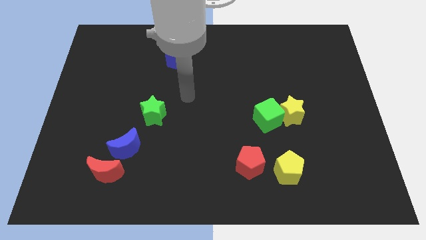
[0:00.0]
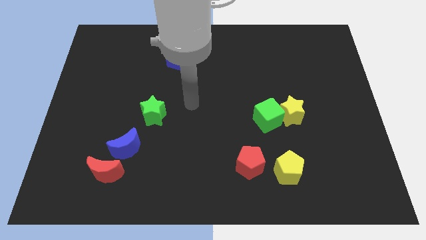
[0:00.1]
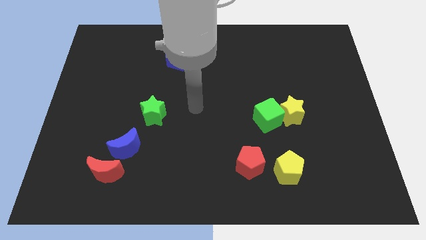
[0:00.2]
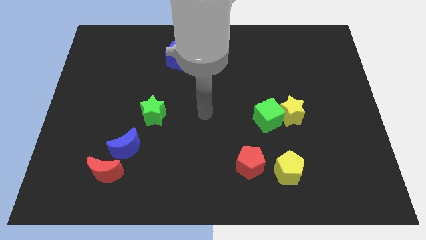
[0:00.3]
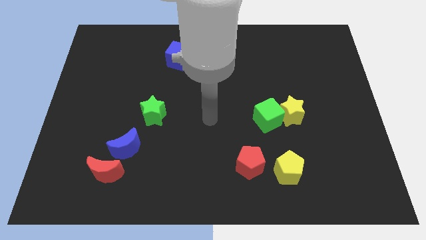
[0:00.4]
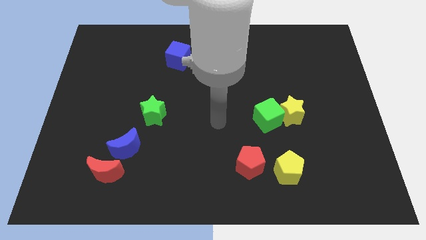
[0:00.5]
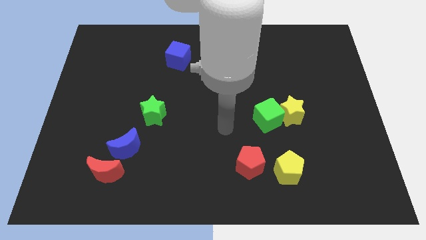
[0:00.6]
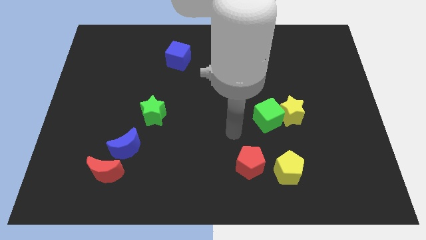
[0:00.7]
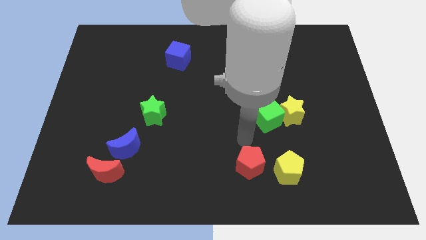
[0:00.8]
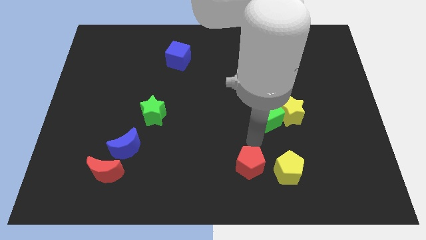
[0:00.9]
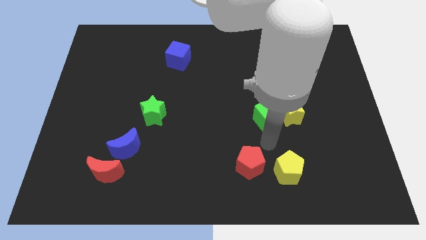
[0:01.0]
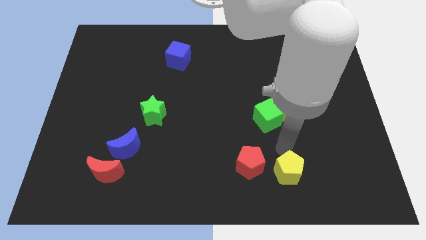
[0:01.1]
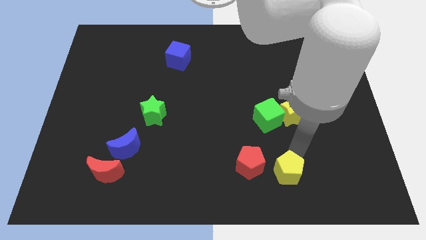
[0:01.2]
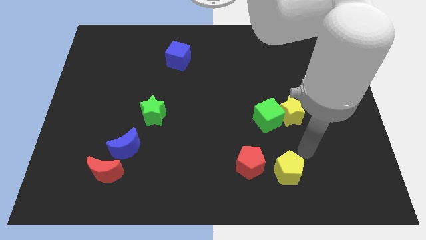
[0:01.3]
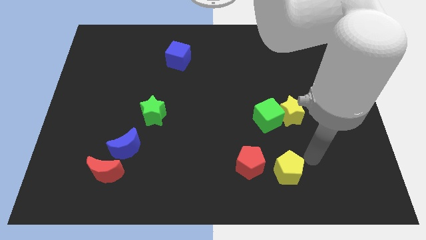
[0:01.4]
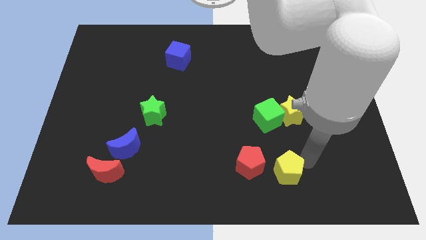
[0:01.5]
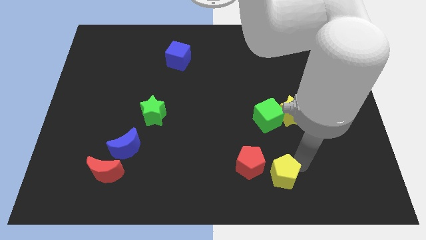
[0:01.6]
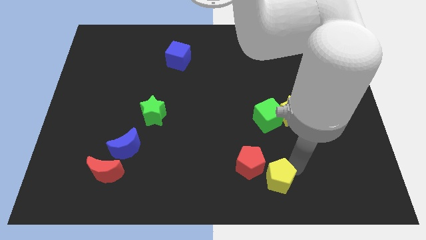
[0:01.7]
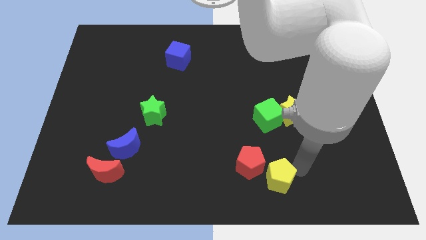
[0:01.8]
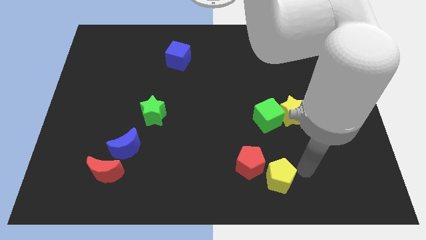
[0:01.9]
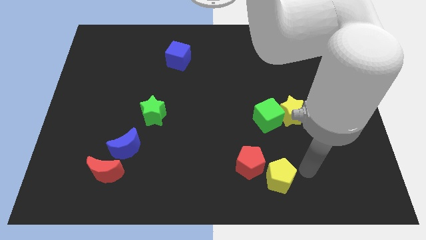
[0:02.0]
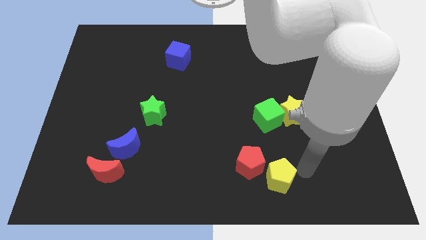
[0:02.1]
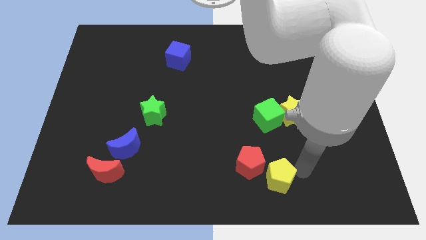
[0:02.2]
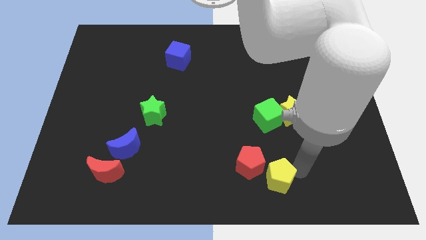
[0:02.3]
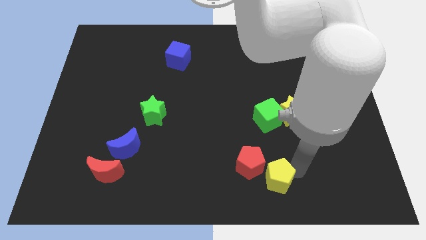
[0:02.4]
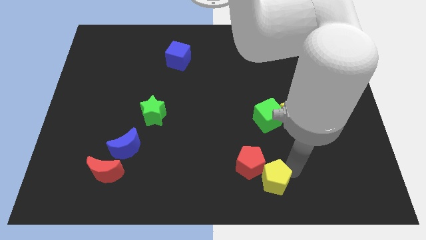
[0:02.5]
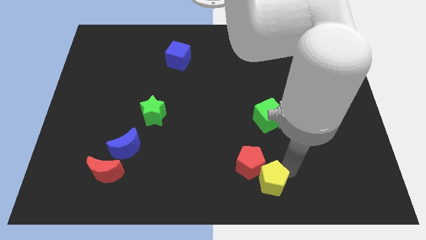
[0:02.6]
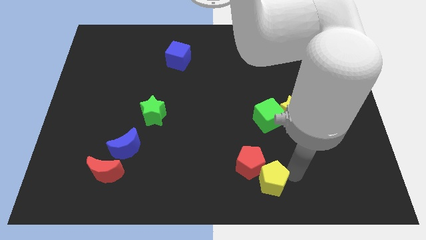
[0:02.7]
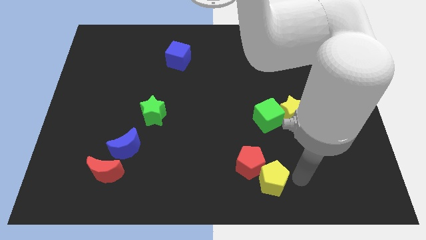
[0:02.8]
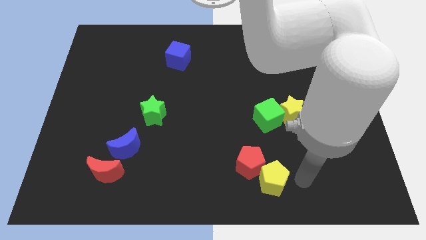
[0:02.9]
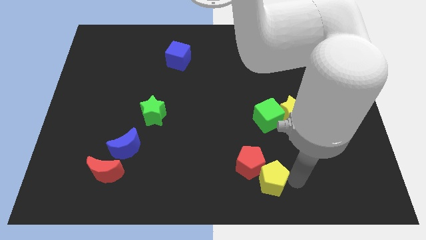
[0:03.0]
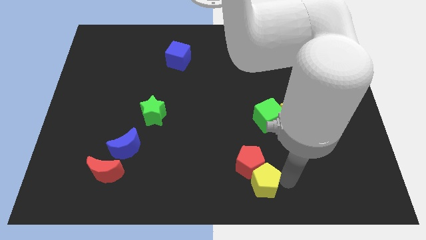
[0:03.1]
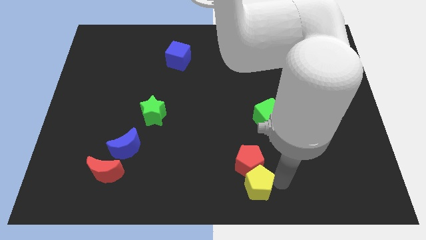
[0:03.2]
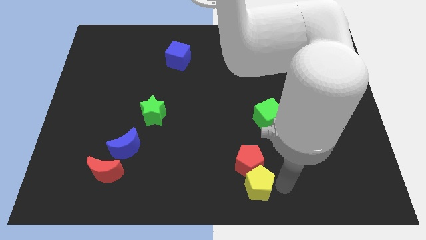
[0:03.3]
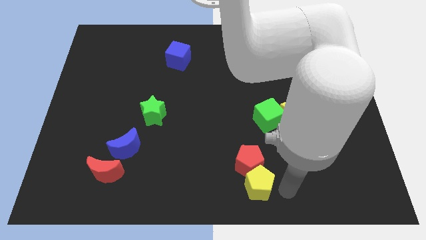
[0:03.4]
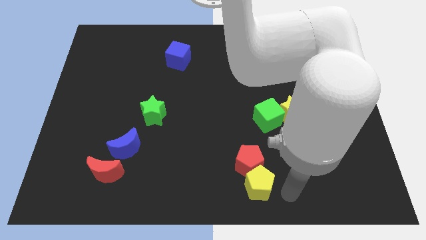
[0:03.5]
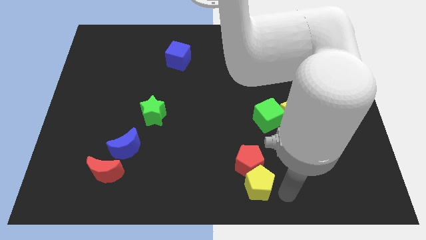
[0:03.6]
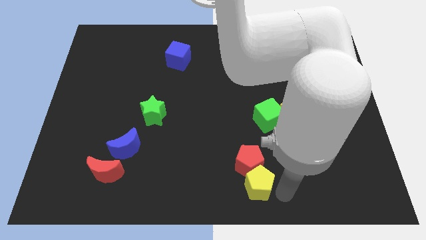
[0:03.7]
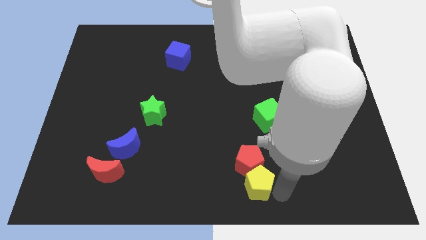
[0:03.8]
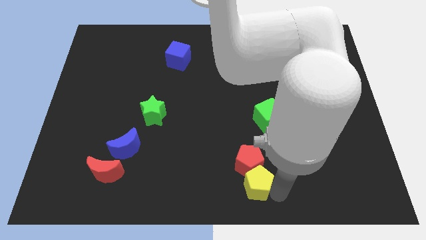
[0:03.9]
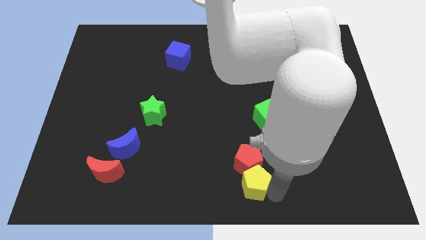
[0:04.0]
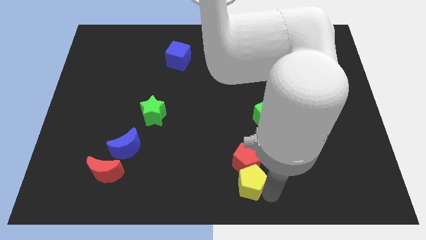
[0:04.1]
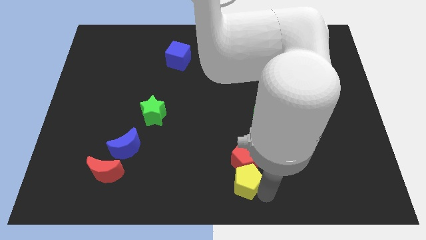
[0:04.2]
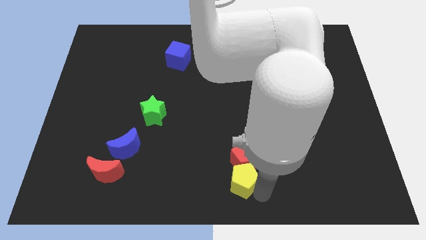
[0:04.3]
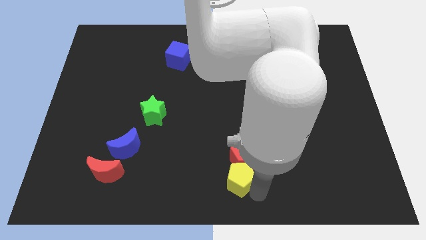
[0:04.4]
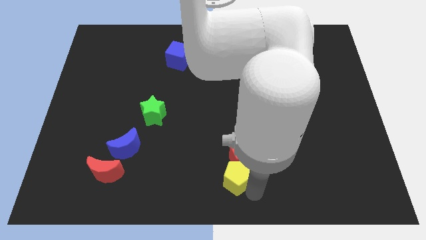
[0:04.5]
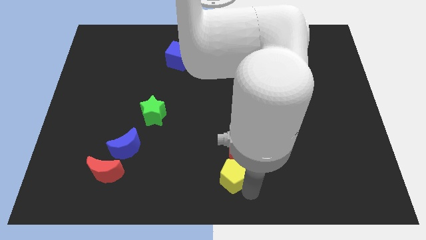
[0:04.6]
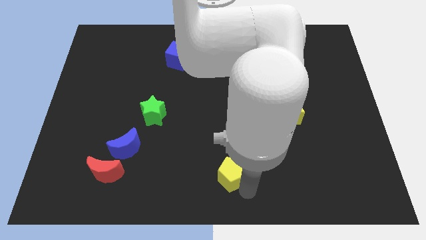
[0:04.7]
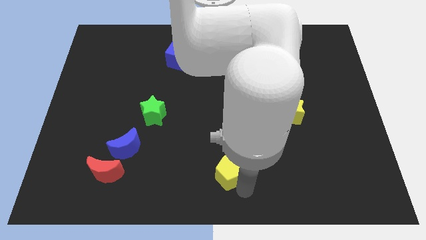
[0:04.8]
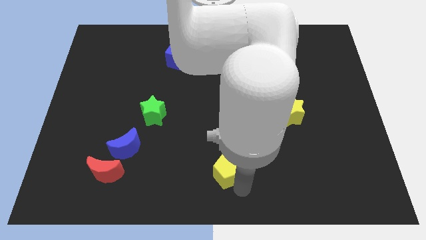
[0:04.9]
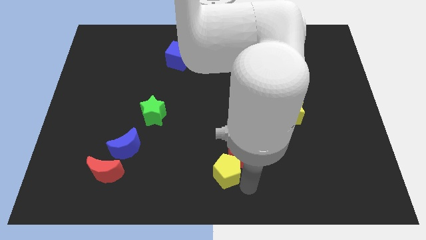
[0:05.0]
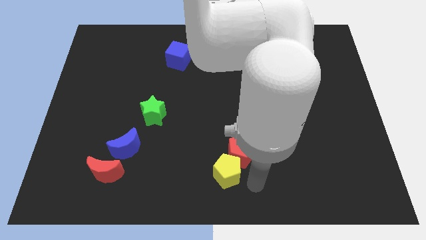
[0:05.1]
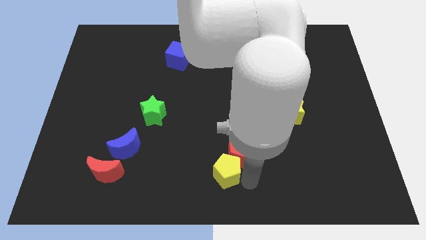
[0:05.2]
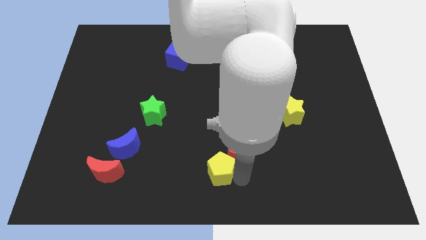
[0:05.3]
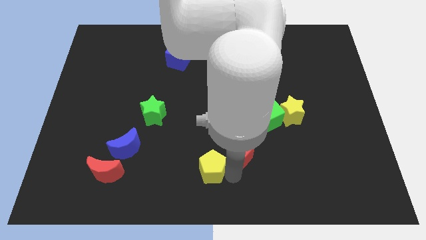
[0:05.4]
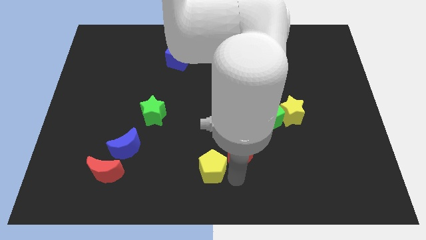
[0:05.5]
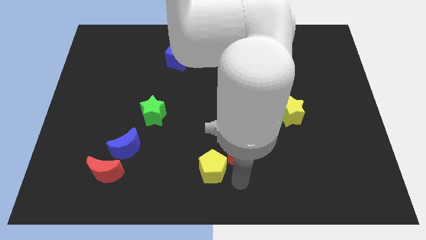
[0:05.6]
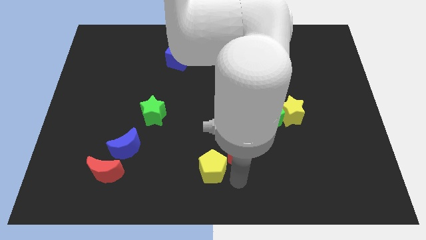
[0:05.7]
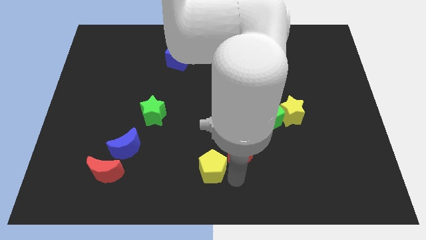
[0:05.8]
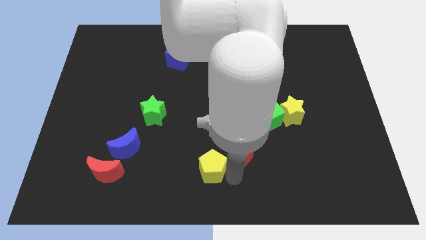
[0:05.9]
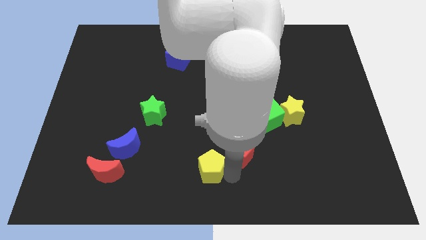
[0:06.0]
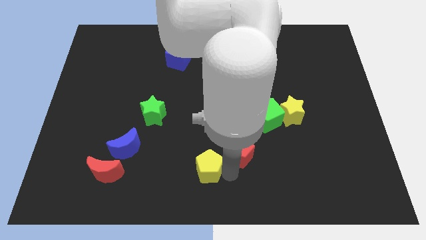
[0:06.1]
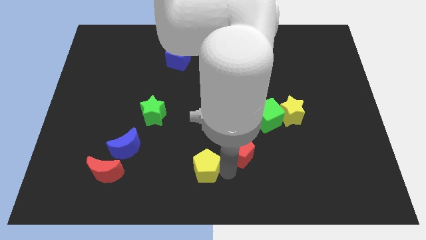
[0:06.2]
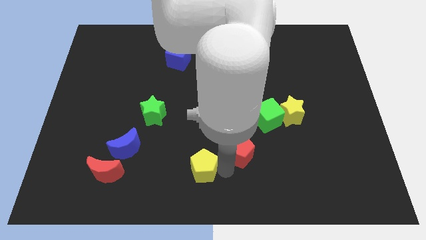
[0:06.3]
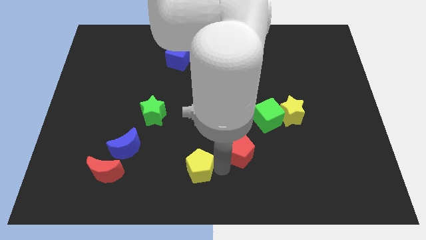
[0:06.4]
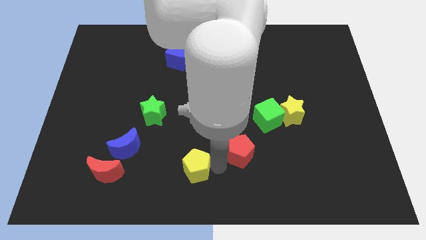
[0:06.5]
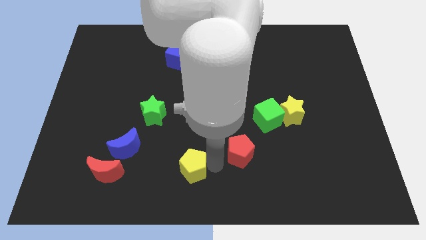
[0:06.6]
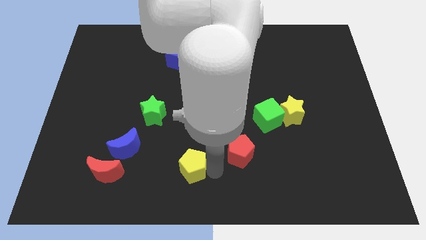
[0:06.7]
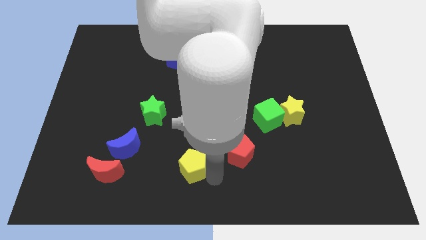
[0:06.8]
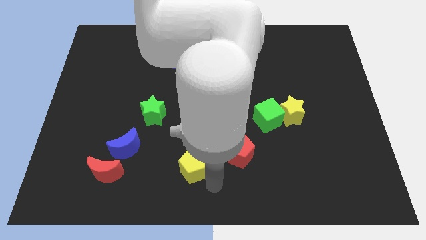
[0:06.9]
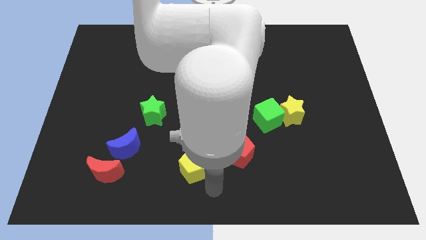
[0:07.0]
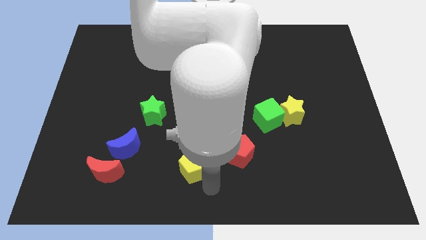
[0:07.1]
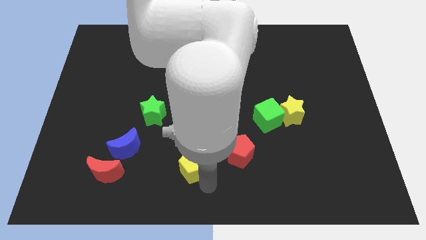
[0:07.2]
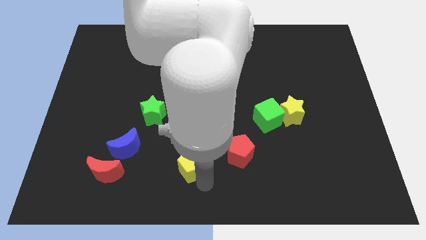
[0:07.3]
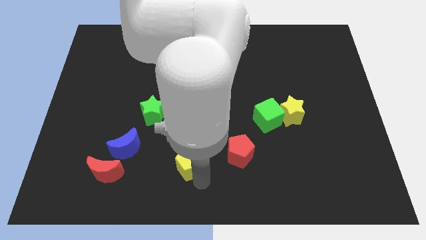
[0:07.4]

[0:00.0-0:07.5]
slide the yellow pentagon just right of the blue moon

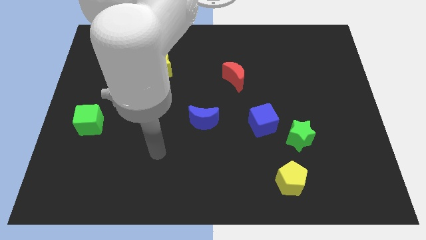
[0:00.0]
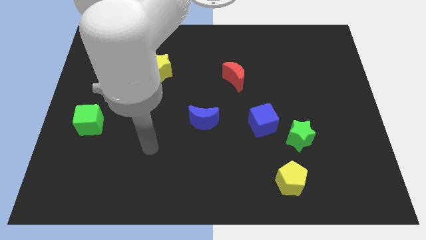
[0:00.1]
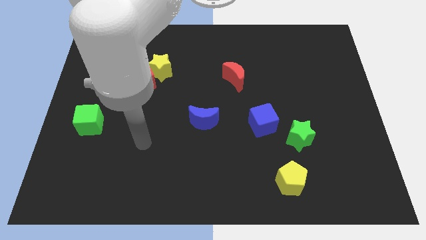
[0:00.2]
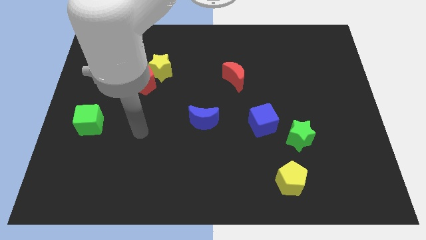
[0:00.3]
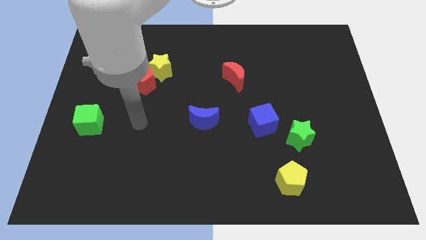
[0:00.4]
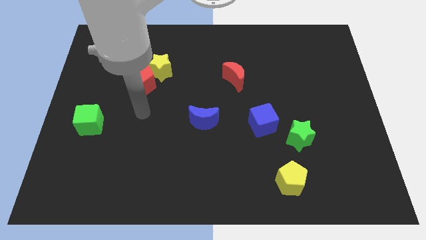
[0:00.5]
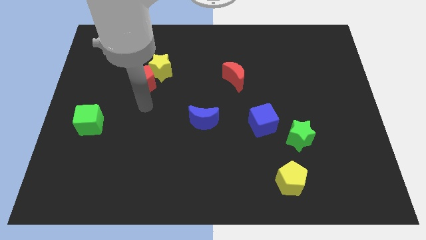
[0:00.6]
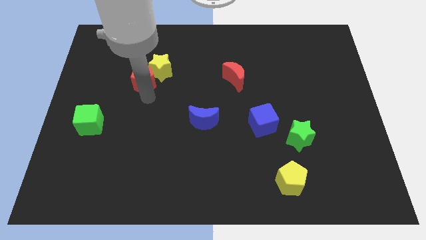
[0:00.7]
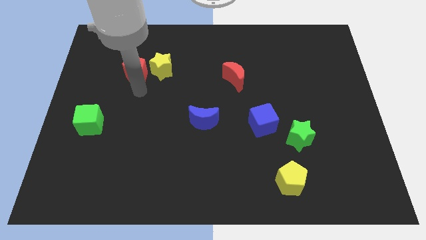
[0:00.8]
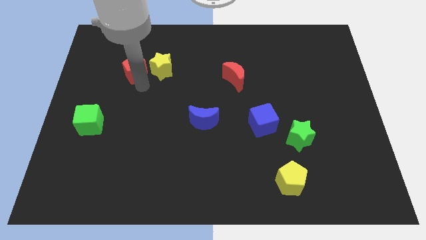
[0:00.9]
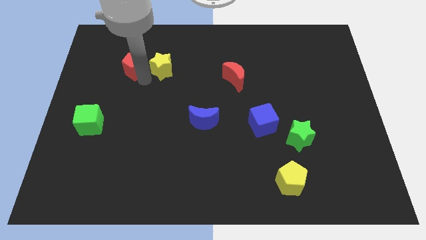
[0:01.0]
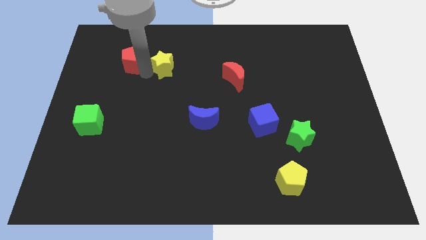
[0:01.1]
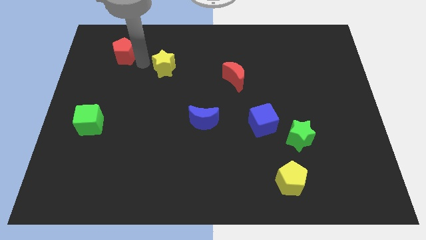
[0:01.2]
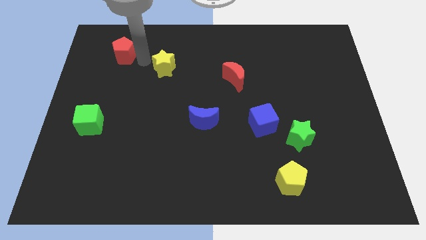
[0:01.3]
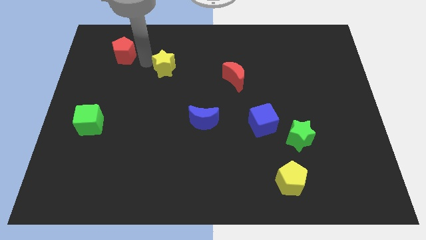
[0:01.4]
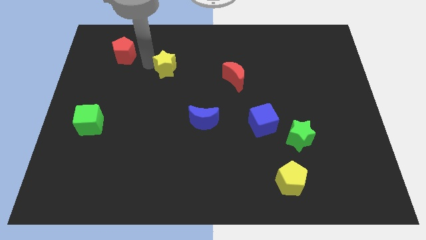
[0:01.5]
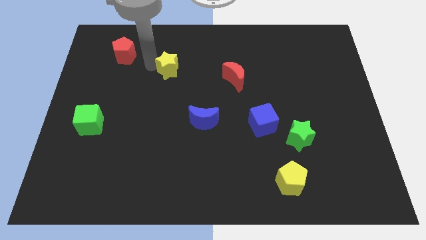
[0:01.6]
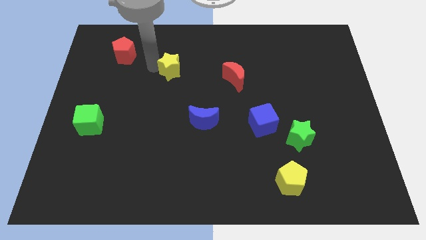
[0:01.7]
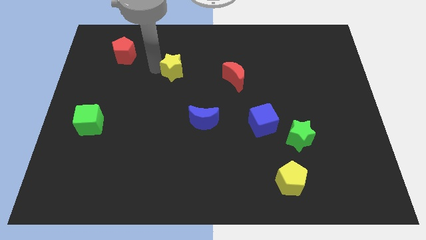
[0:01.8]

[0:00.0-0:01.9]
push the yellow star left of the red moon
